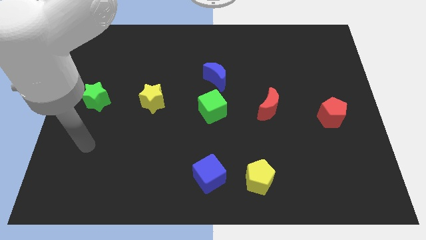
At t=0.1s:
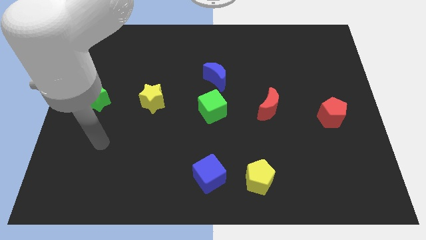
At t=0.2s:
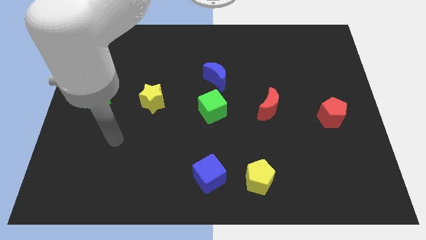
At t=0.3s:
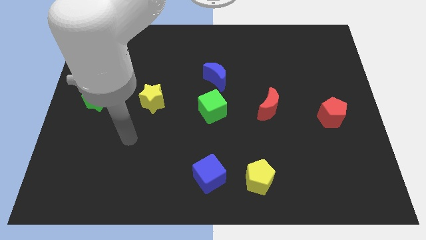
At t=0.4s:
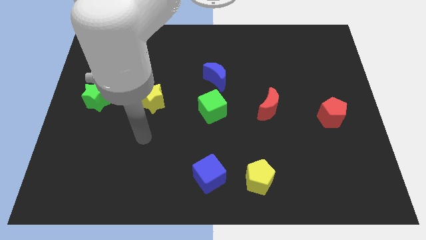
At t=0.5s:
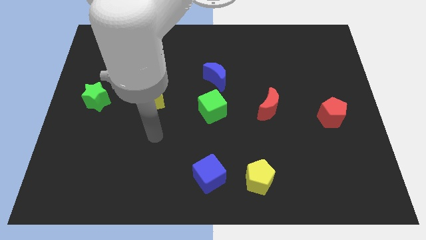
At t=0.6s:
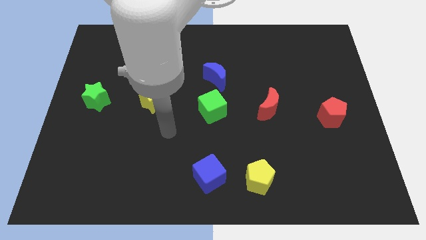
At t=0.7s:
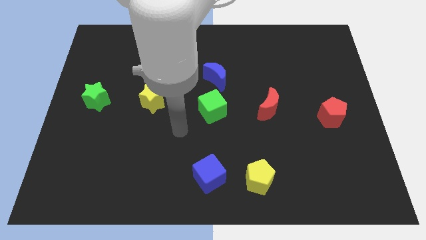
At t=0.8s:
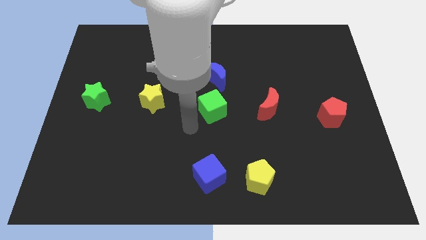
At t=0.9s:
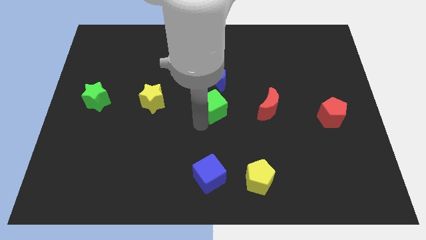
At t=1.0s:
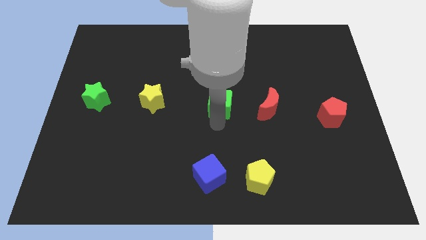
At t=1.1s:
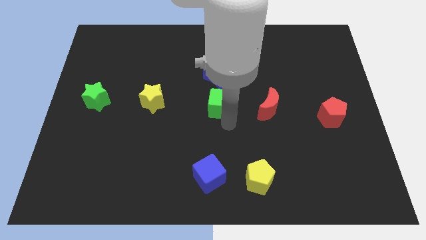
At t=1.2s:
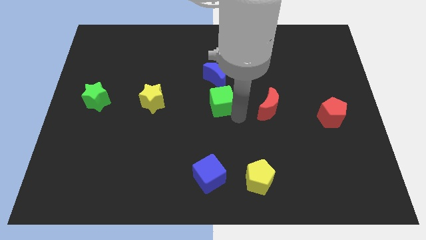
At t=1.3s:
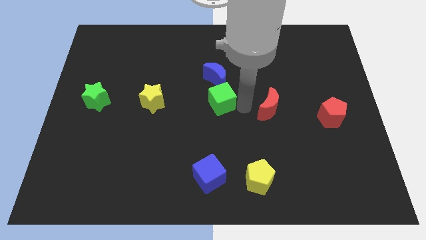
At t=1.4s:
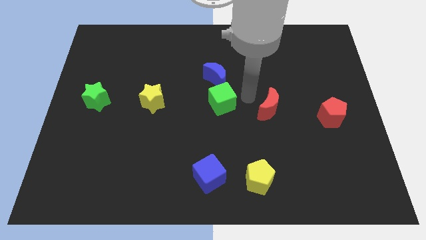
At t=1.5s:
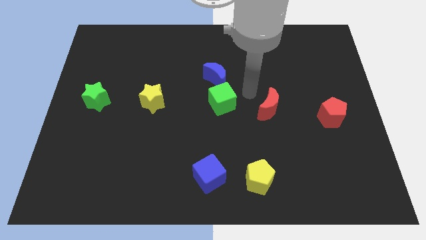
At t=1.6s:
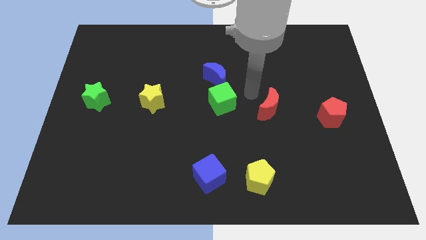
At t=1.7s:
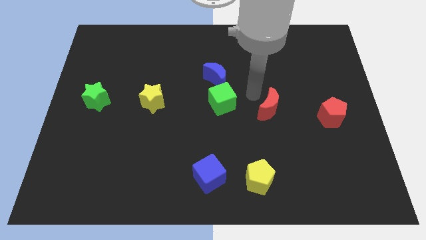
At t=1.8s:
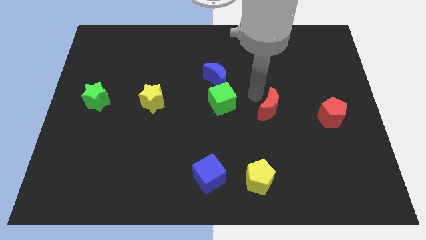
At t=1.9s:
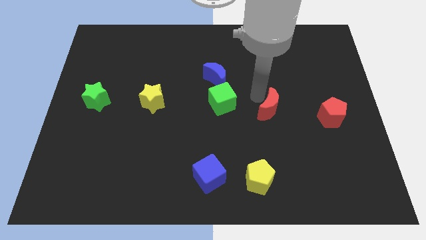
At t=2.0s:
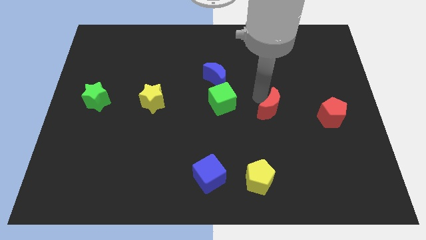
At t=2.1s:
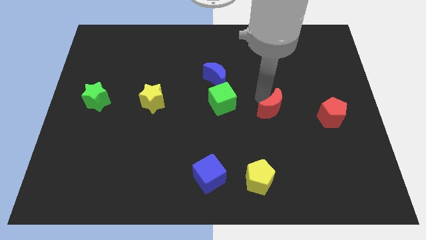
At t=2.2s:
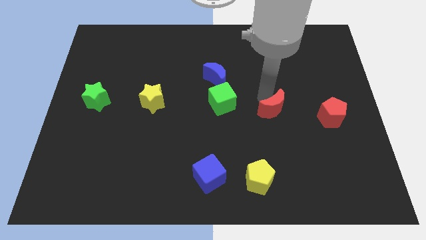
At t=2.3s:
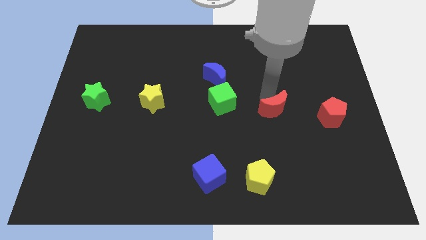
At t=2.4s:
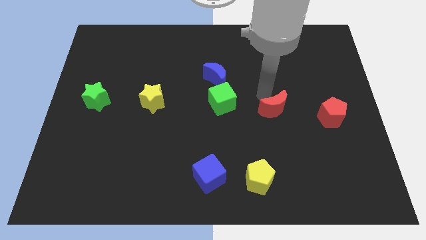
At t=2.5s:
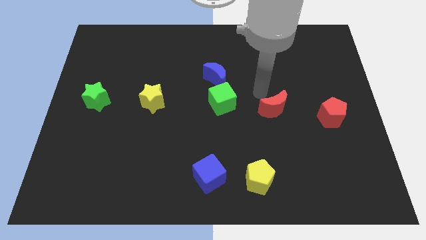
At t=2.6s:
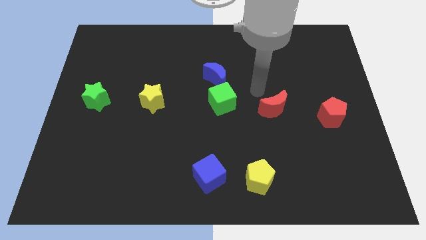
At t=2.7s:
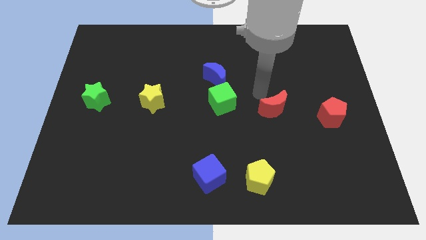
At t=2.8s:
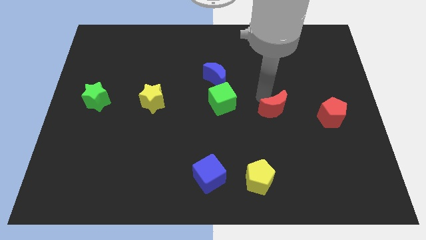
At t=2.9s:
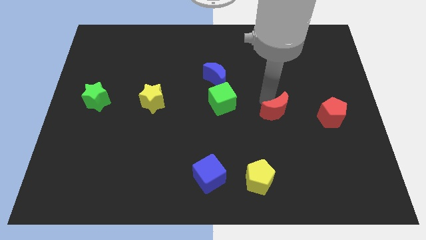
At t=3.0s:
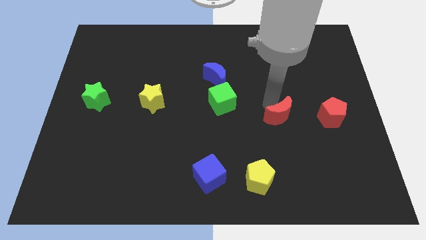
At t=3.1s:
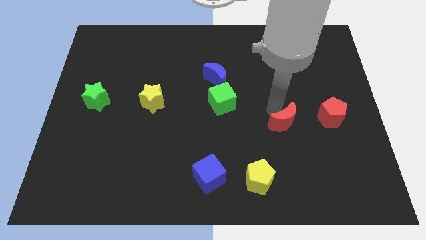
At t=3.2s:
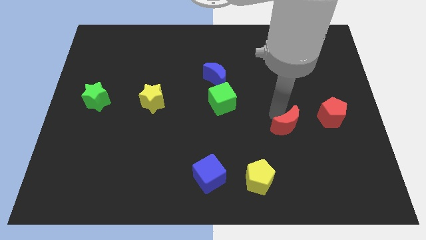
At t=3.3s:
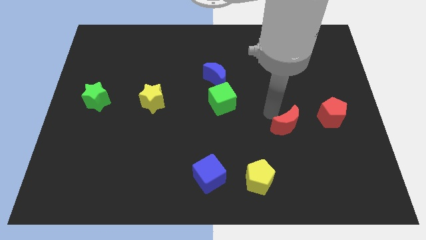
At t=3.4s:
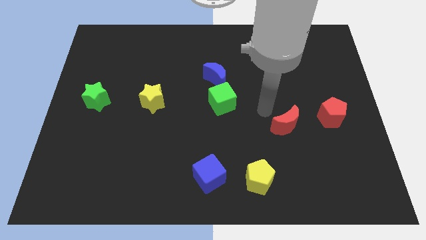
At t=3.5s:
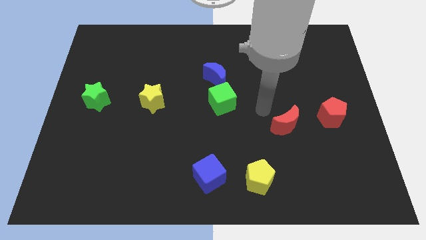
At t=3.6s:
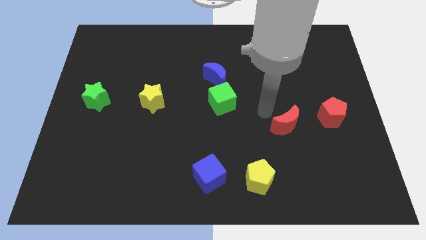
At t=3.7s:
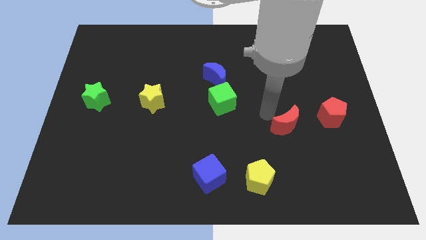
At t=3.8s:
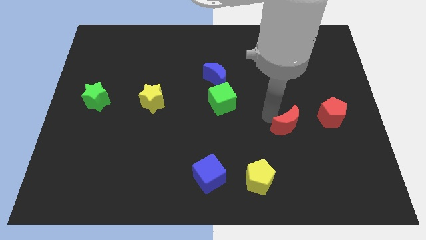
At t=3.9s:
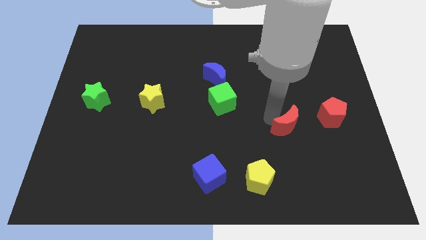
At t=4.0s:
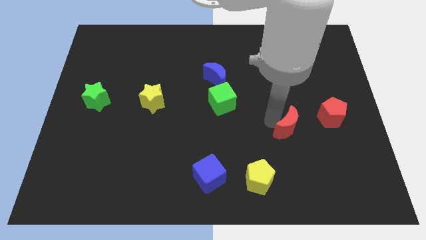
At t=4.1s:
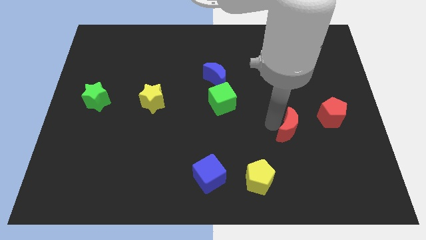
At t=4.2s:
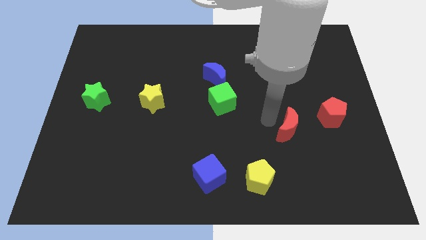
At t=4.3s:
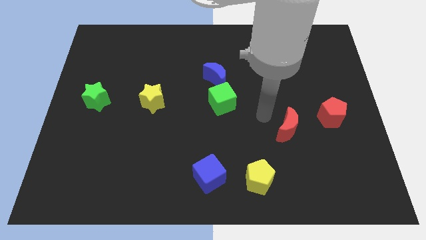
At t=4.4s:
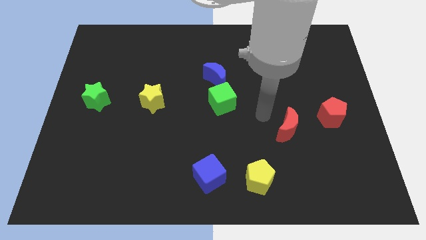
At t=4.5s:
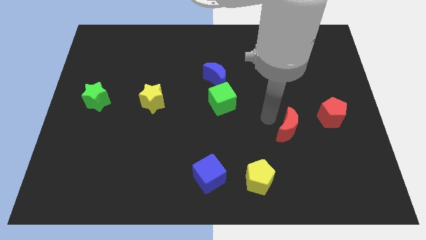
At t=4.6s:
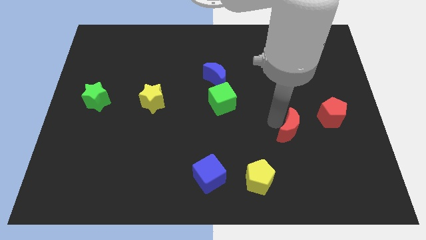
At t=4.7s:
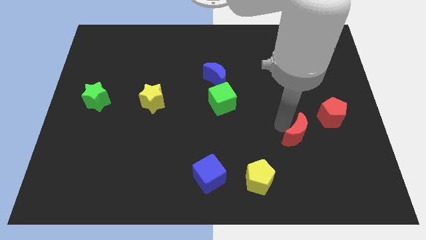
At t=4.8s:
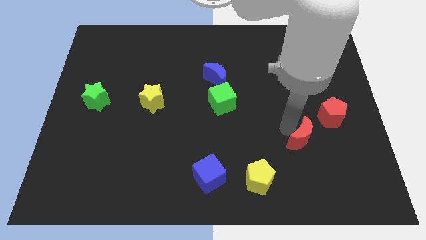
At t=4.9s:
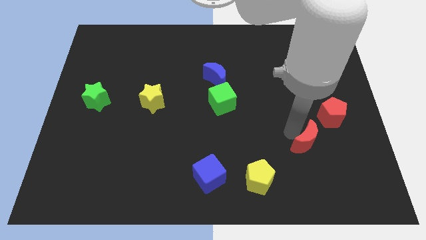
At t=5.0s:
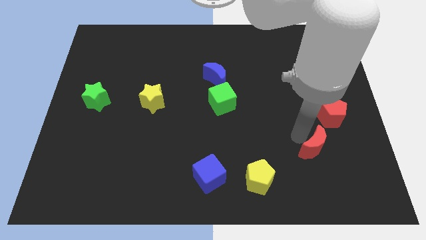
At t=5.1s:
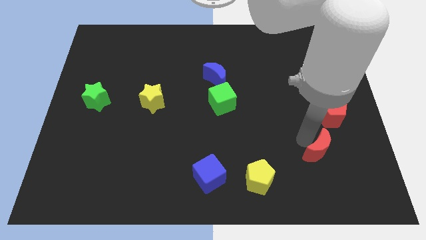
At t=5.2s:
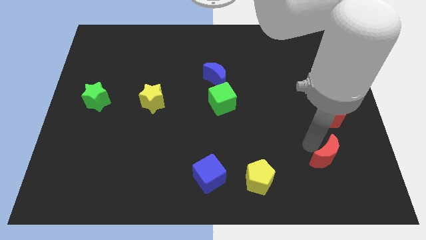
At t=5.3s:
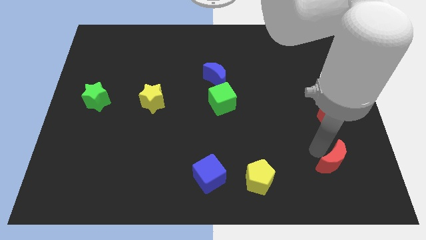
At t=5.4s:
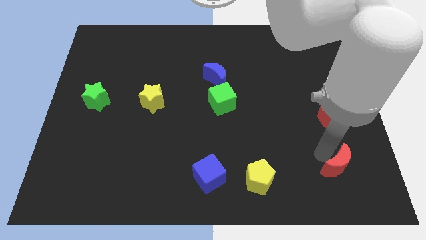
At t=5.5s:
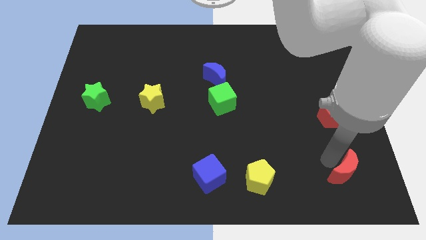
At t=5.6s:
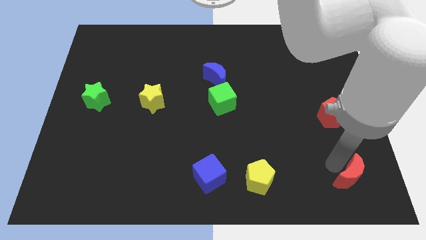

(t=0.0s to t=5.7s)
put the red moon to the lower right corner

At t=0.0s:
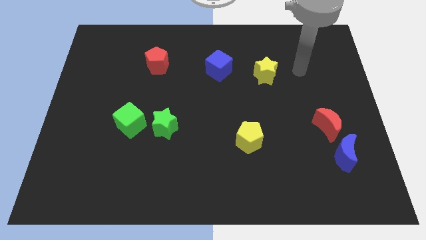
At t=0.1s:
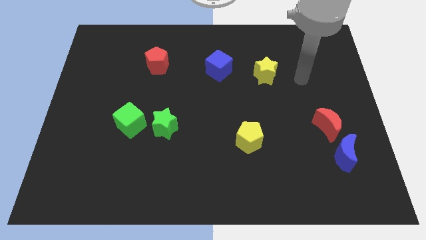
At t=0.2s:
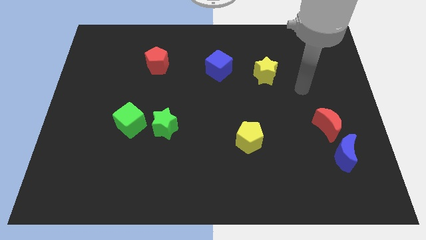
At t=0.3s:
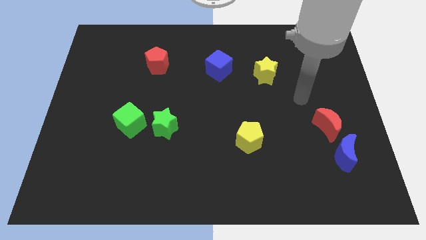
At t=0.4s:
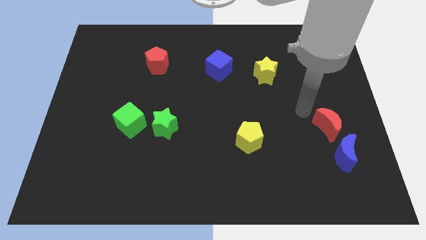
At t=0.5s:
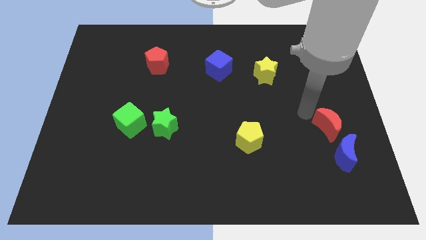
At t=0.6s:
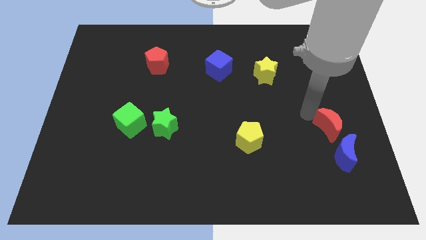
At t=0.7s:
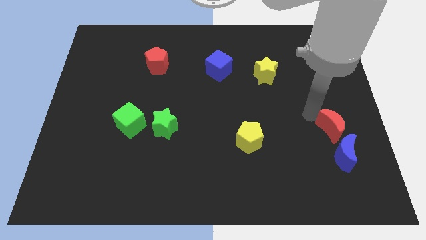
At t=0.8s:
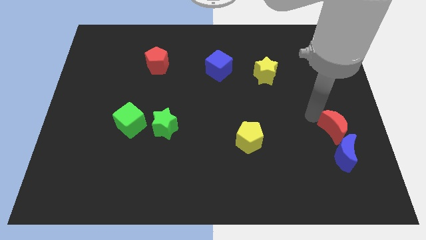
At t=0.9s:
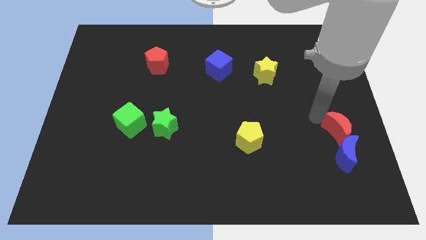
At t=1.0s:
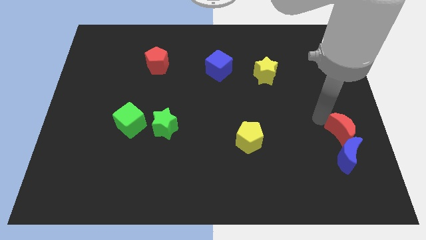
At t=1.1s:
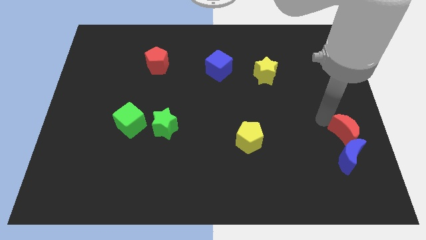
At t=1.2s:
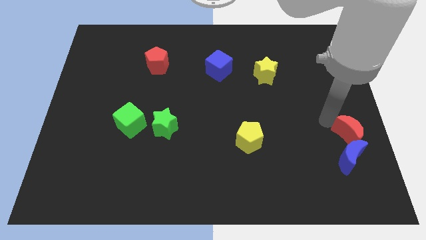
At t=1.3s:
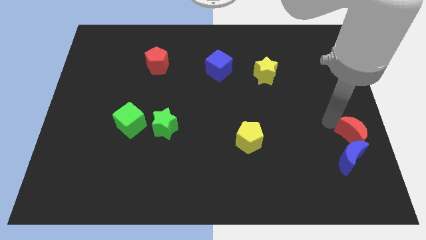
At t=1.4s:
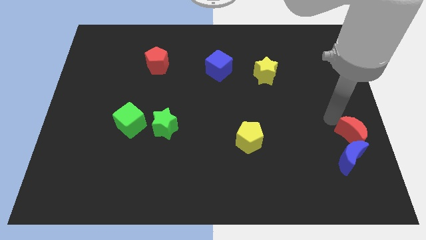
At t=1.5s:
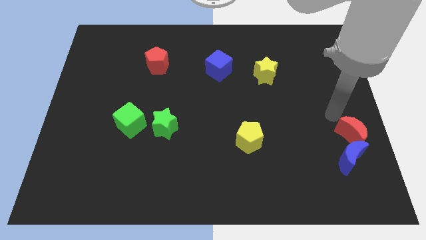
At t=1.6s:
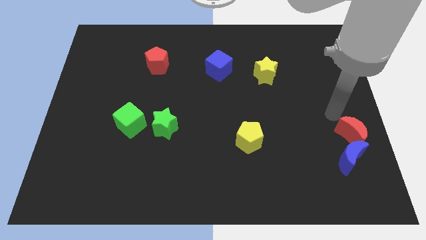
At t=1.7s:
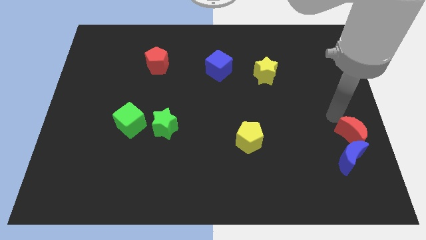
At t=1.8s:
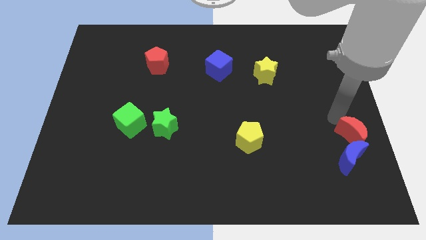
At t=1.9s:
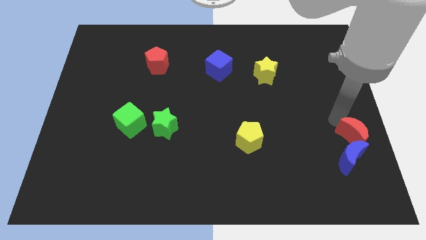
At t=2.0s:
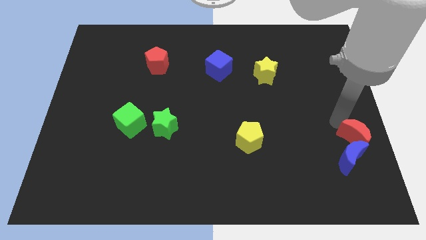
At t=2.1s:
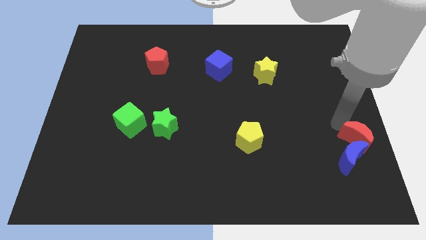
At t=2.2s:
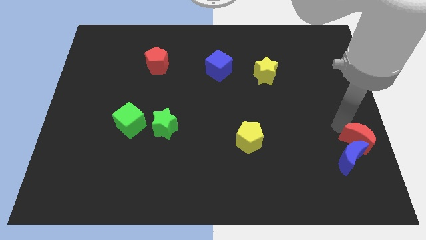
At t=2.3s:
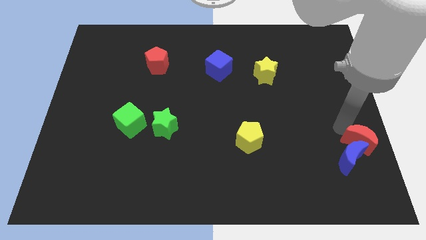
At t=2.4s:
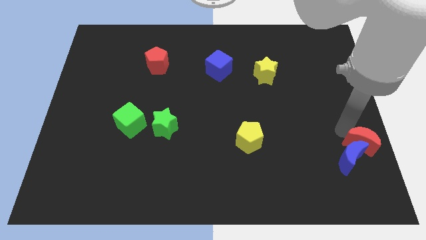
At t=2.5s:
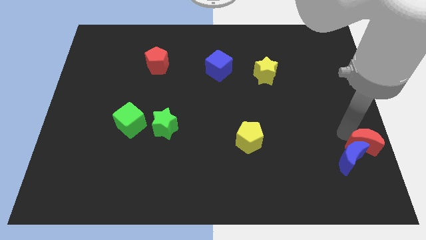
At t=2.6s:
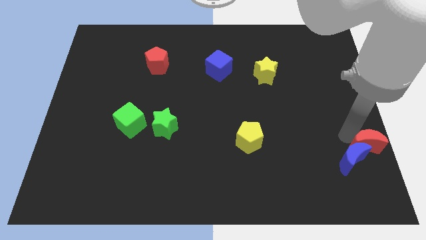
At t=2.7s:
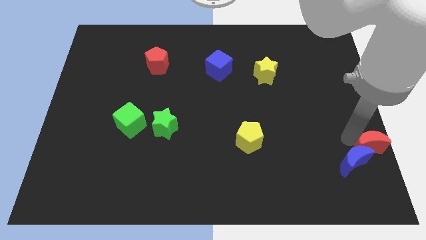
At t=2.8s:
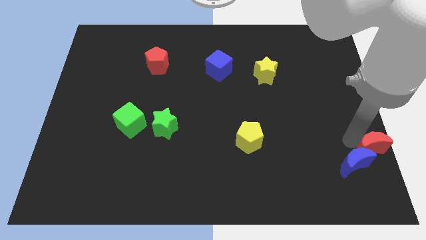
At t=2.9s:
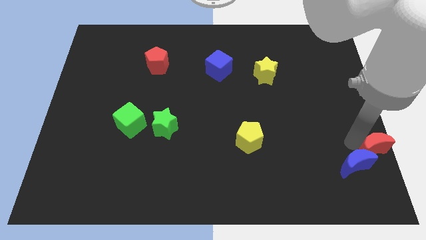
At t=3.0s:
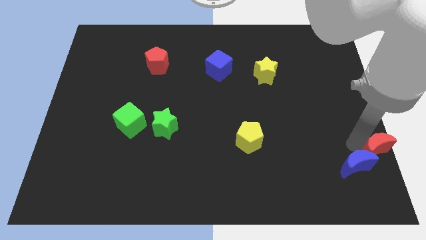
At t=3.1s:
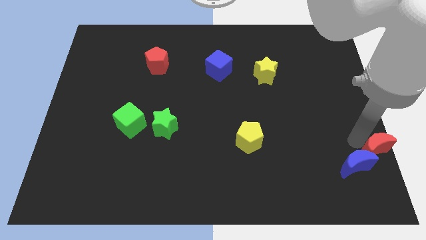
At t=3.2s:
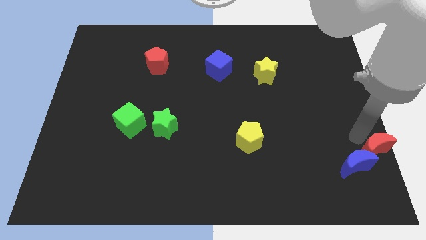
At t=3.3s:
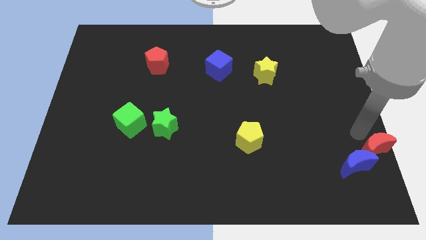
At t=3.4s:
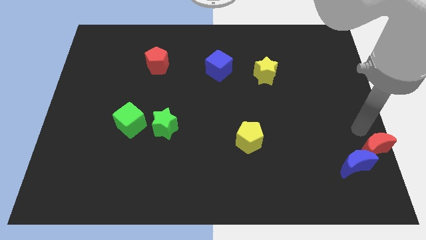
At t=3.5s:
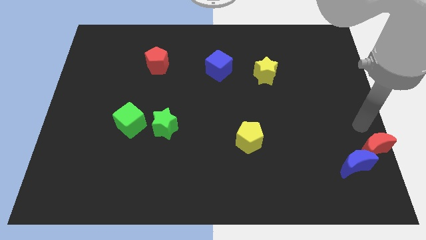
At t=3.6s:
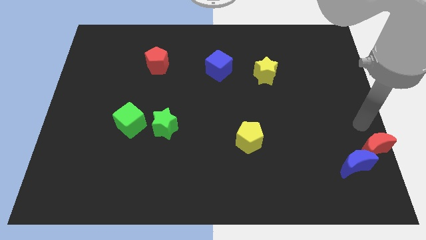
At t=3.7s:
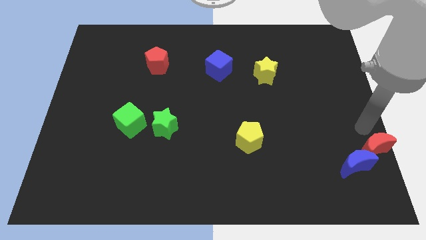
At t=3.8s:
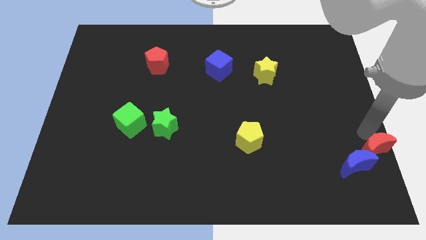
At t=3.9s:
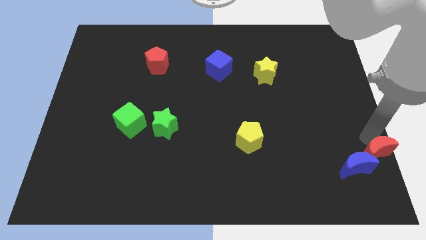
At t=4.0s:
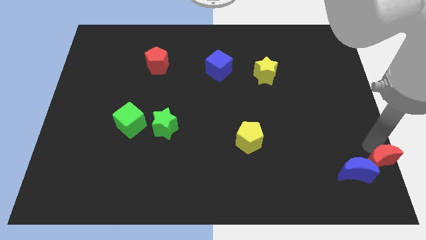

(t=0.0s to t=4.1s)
push the red moon to the lower right corner
